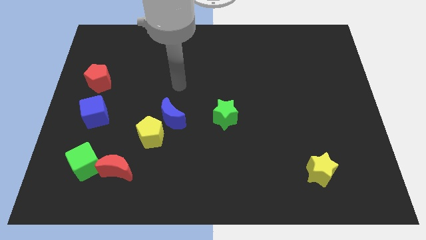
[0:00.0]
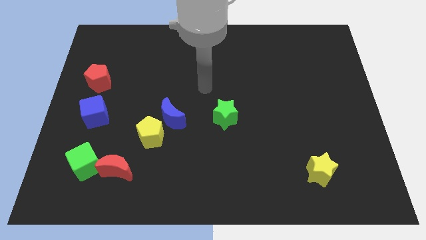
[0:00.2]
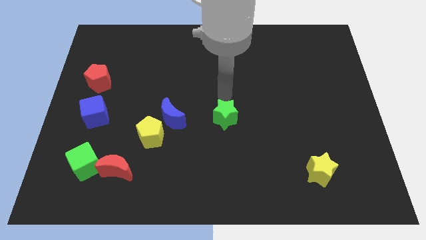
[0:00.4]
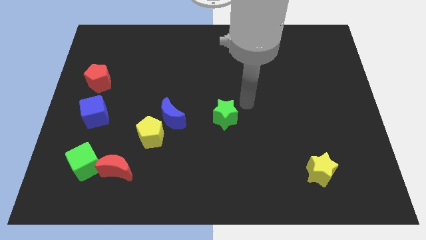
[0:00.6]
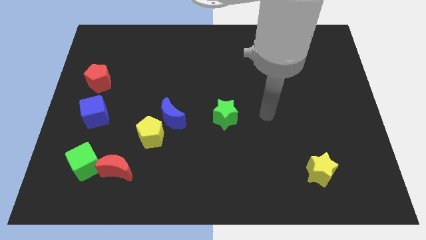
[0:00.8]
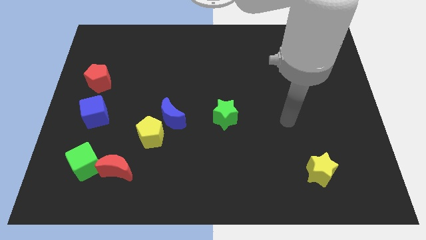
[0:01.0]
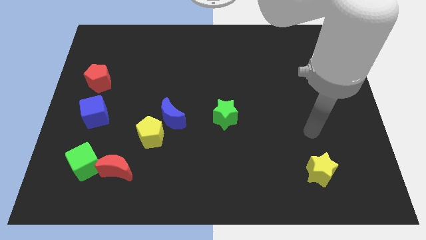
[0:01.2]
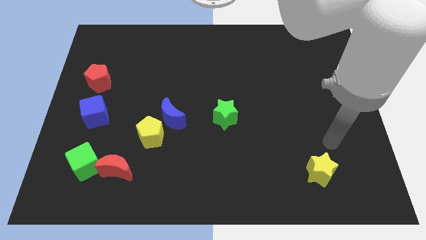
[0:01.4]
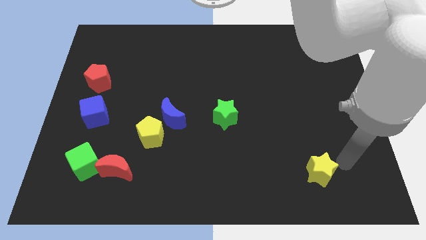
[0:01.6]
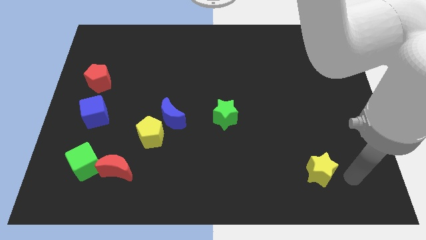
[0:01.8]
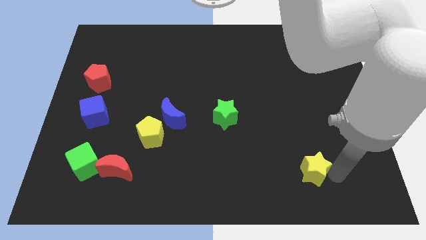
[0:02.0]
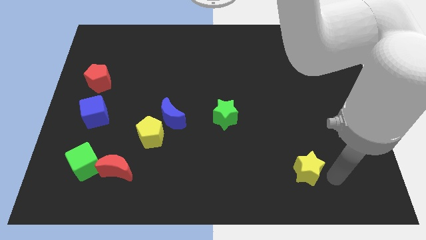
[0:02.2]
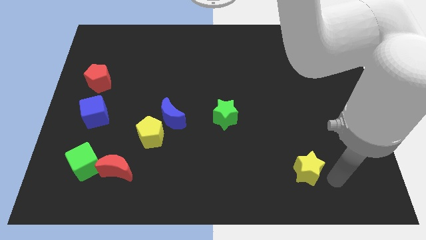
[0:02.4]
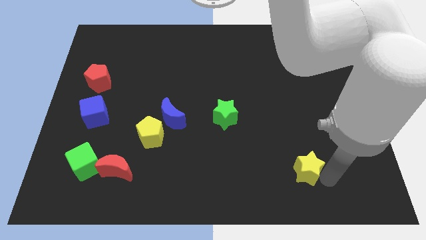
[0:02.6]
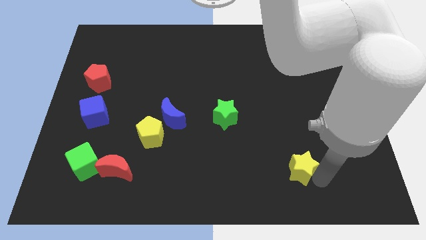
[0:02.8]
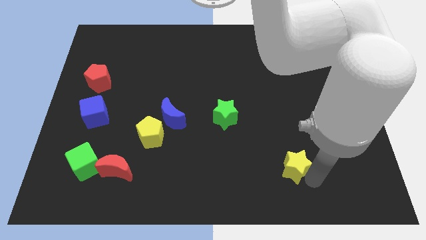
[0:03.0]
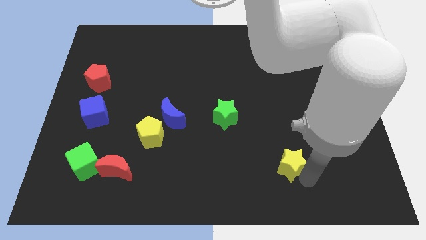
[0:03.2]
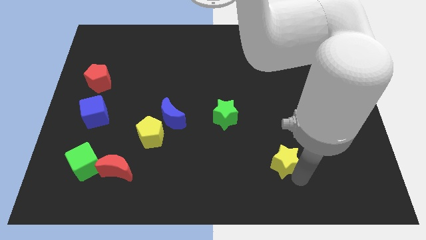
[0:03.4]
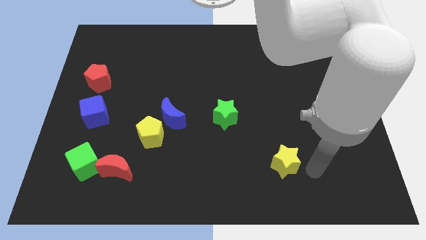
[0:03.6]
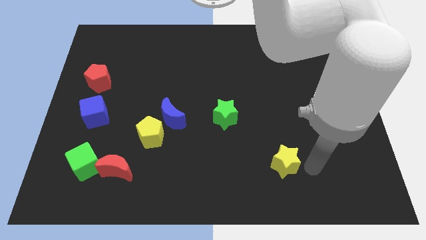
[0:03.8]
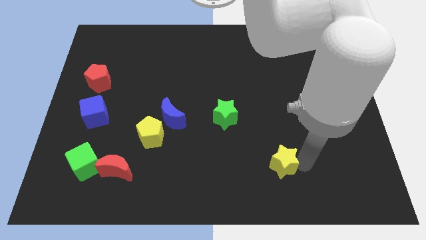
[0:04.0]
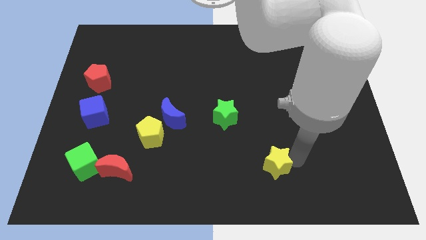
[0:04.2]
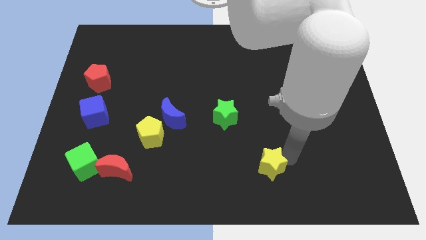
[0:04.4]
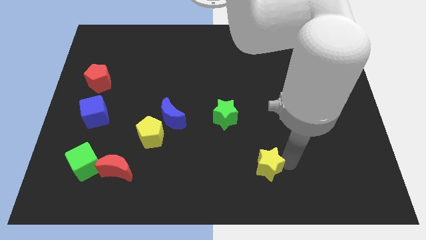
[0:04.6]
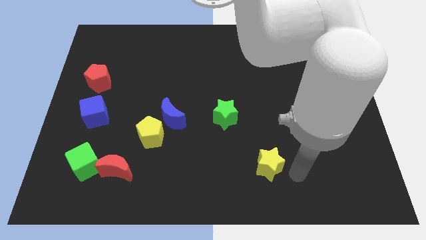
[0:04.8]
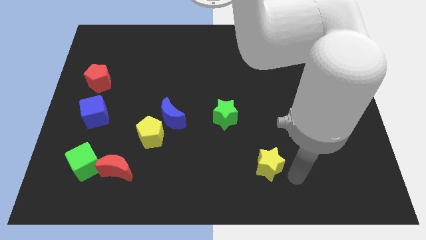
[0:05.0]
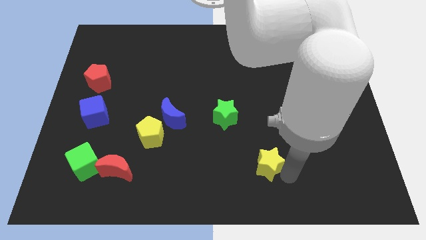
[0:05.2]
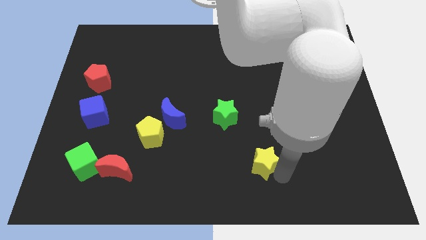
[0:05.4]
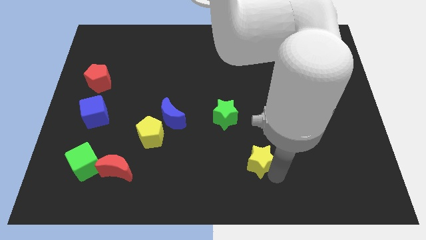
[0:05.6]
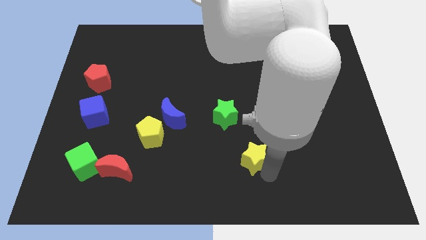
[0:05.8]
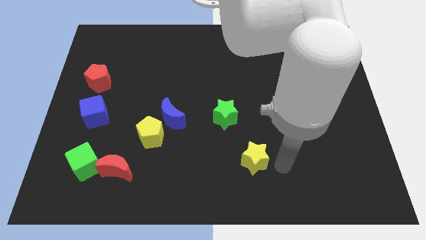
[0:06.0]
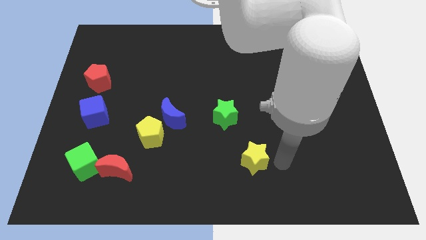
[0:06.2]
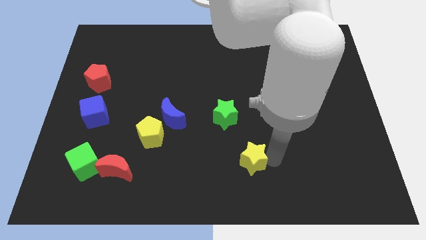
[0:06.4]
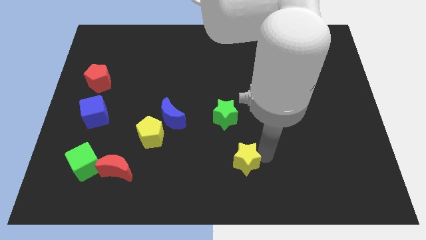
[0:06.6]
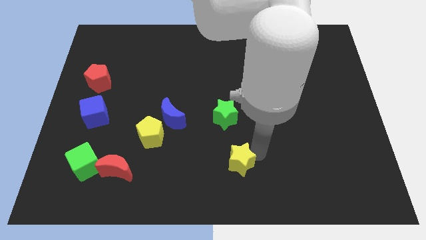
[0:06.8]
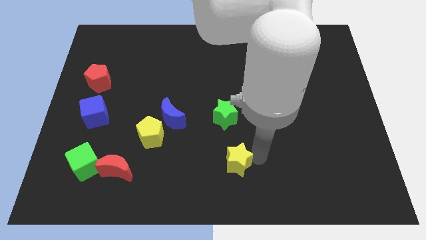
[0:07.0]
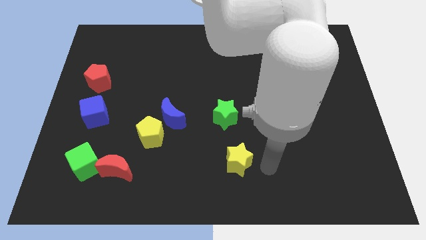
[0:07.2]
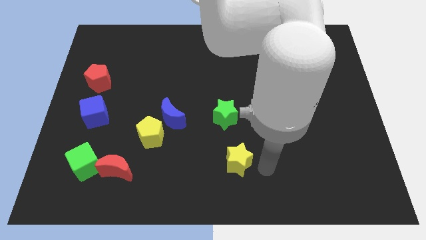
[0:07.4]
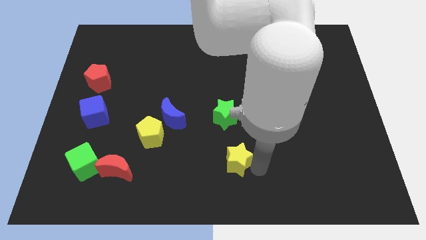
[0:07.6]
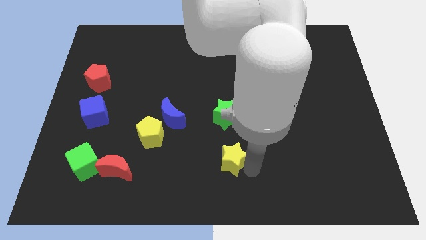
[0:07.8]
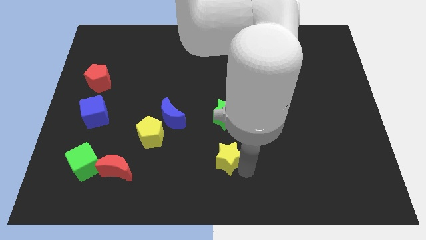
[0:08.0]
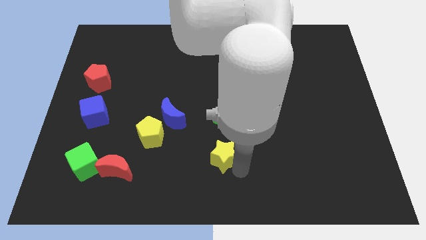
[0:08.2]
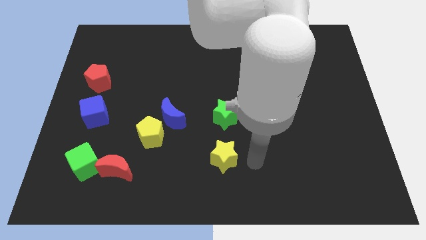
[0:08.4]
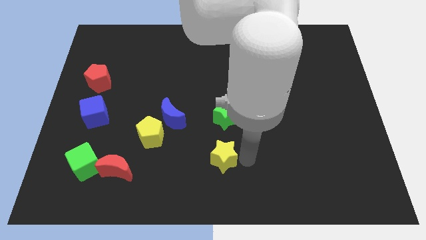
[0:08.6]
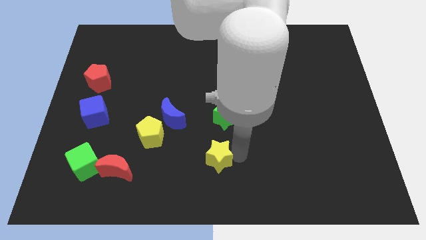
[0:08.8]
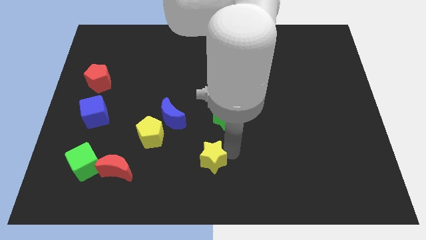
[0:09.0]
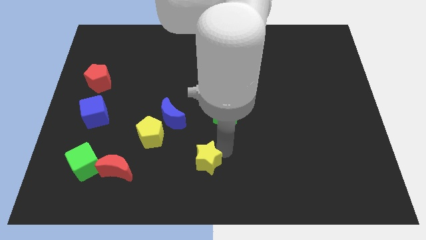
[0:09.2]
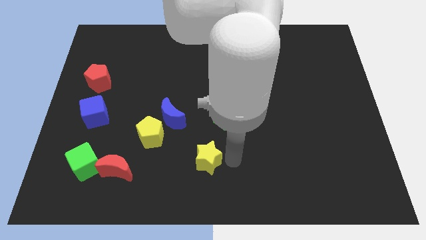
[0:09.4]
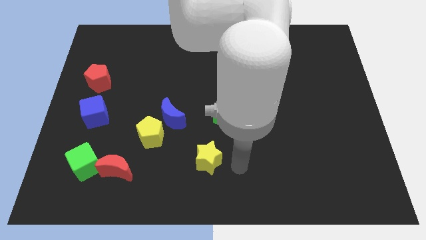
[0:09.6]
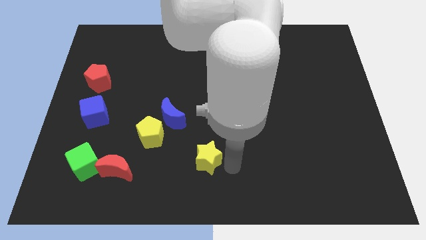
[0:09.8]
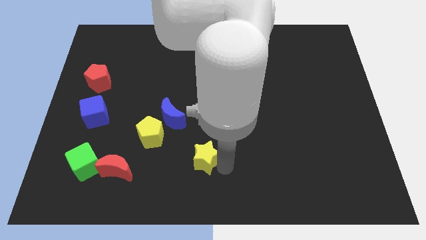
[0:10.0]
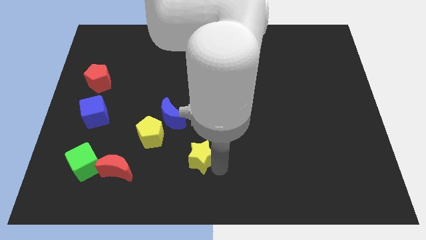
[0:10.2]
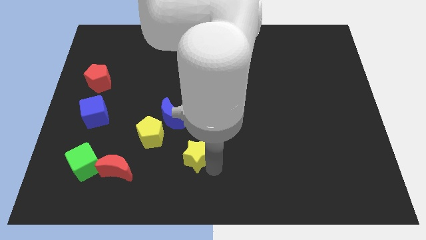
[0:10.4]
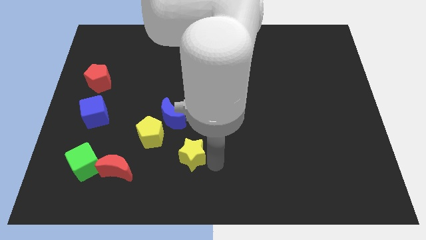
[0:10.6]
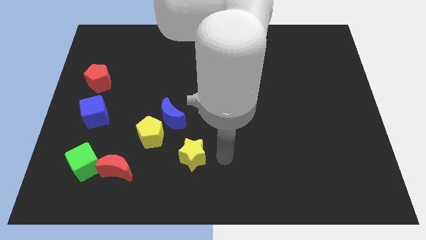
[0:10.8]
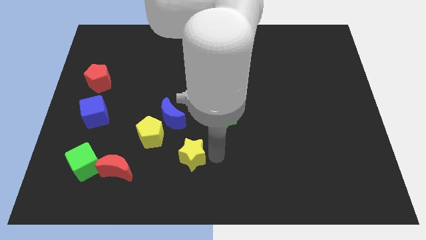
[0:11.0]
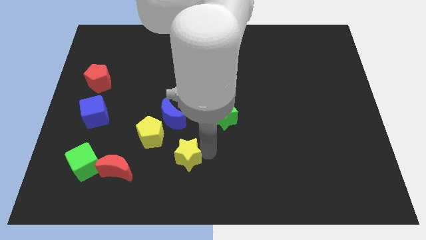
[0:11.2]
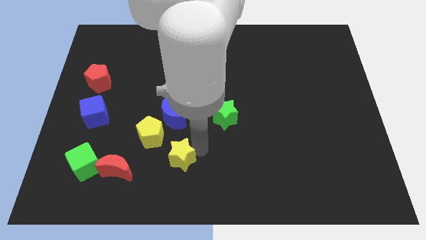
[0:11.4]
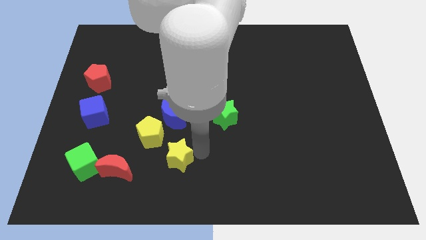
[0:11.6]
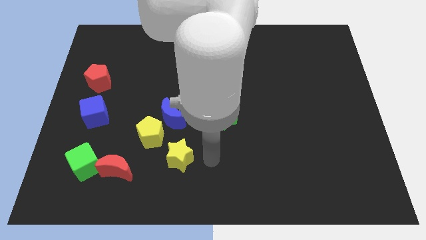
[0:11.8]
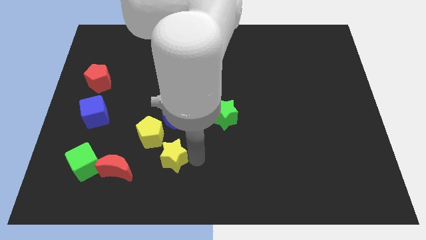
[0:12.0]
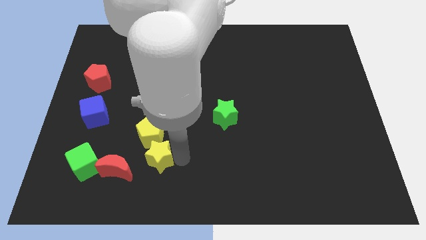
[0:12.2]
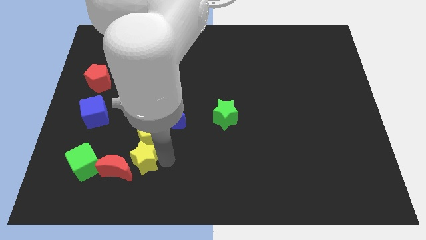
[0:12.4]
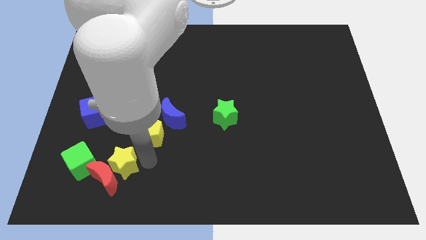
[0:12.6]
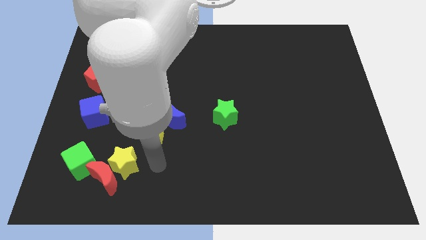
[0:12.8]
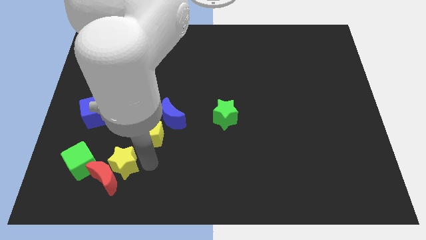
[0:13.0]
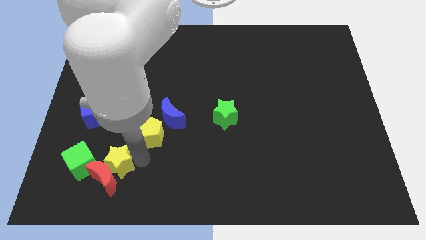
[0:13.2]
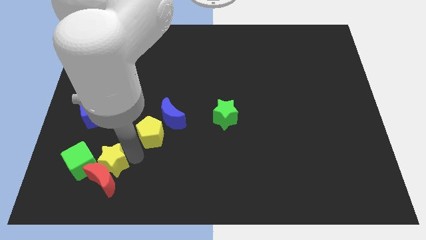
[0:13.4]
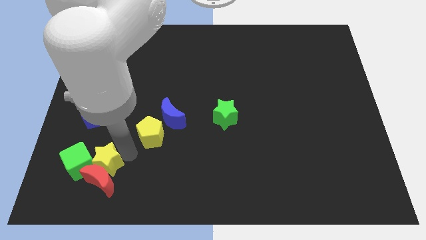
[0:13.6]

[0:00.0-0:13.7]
slide the yellow star next to the green cube
